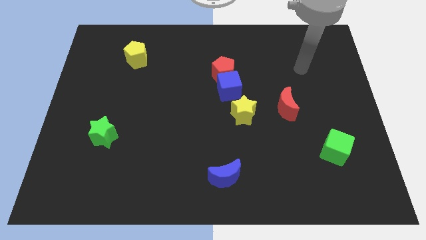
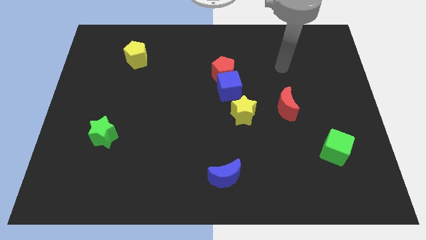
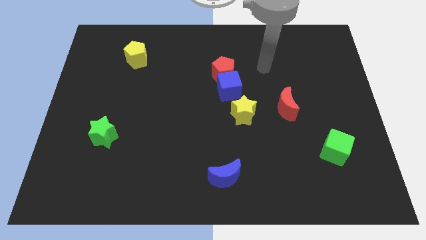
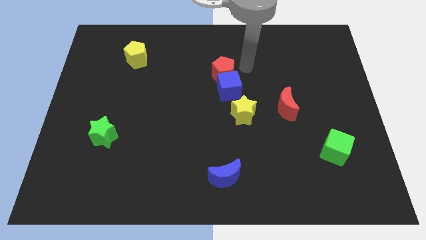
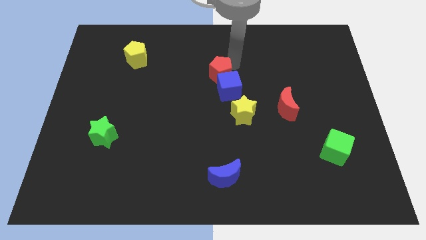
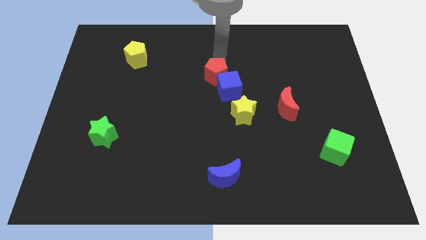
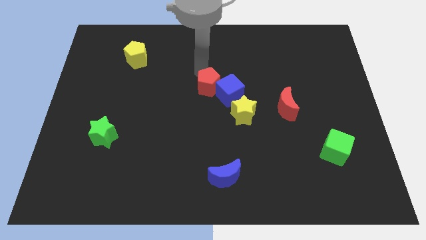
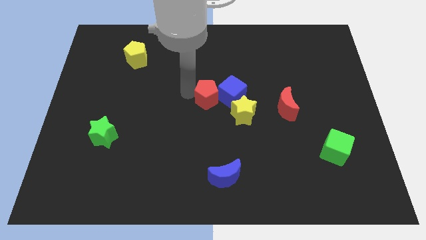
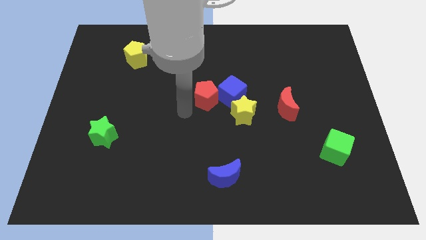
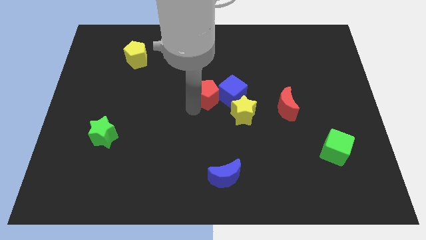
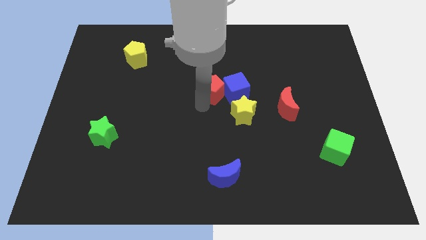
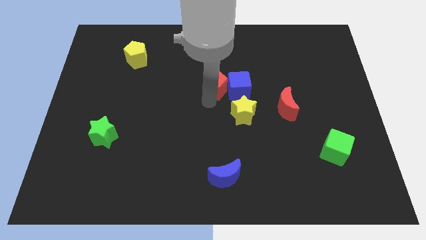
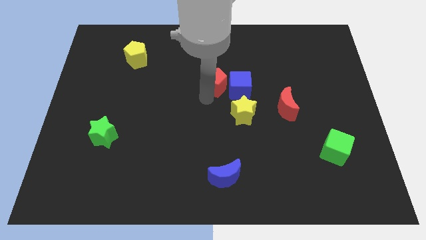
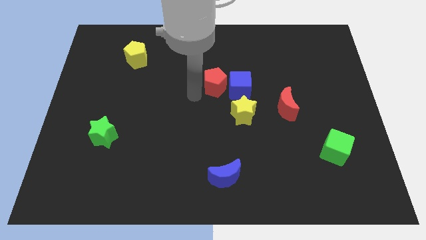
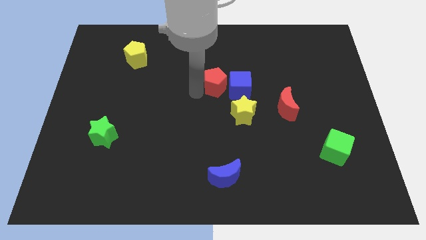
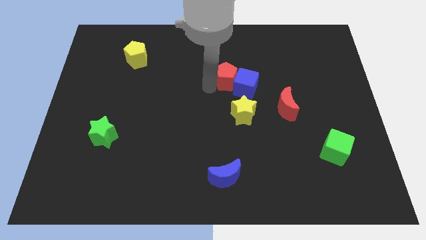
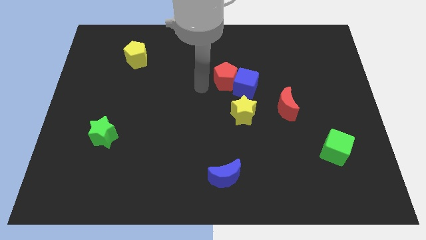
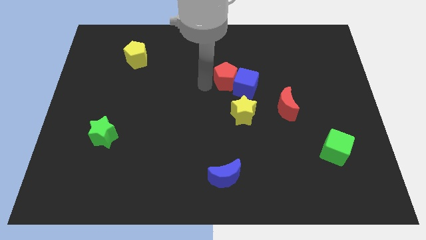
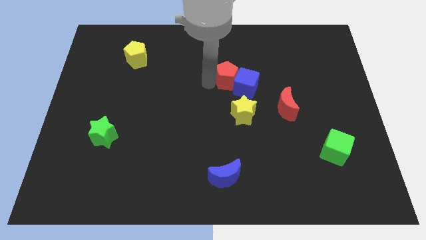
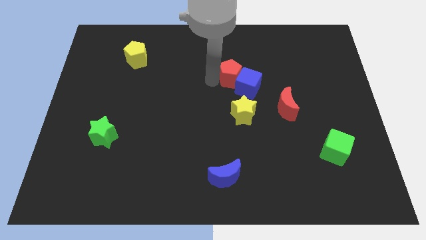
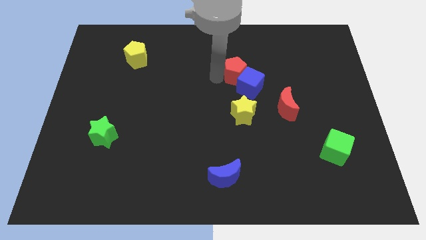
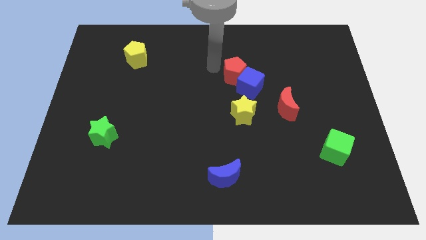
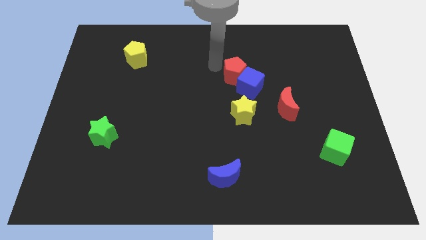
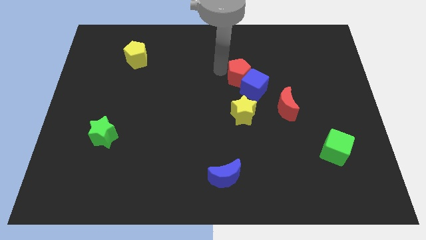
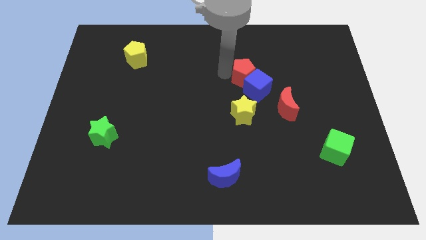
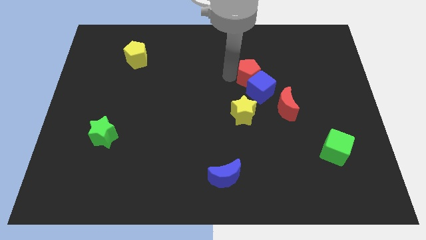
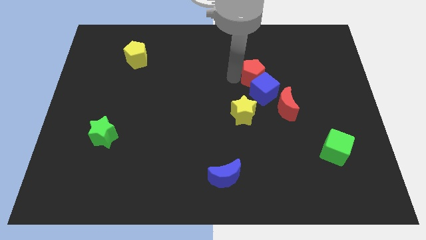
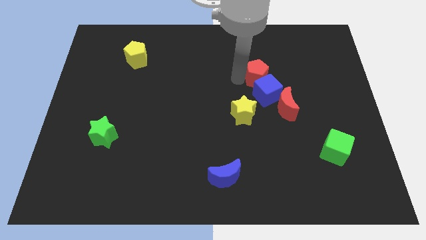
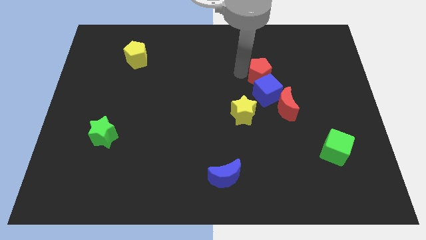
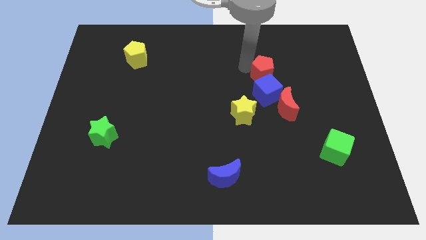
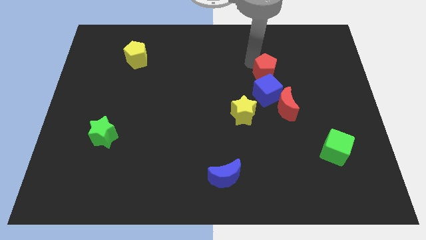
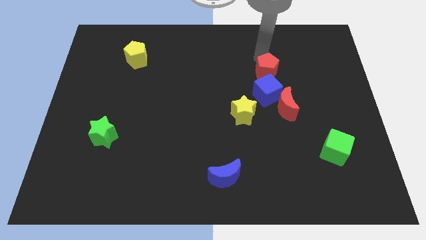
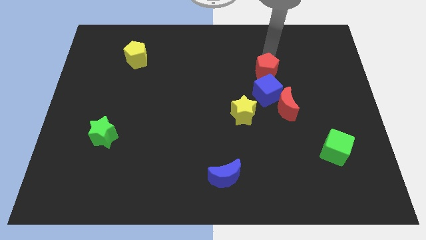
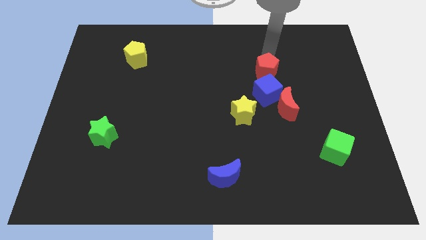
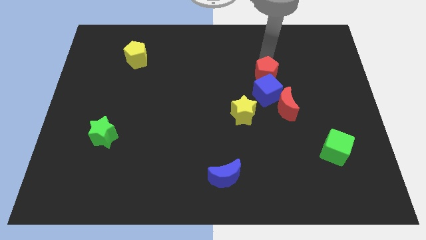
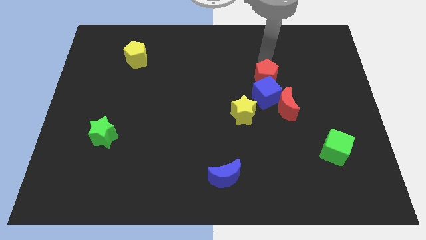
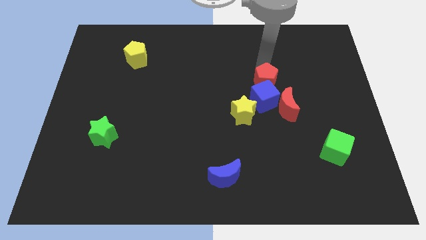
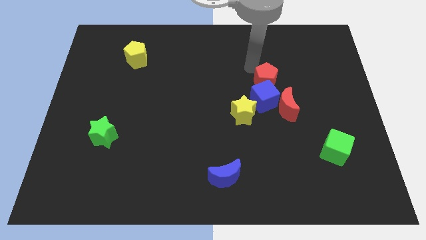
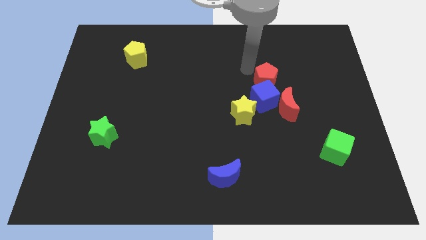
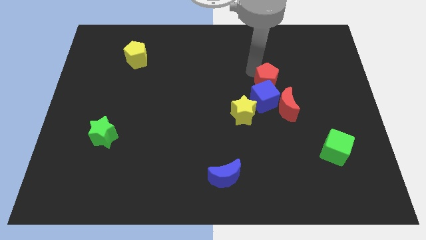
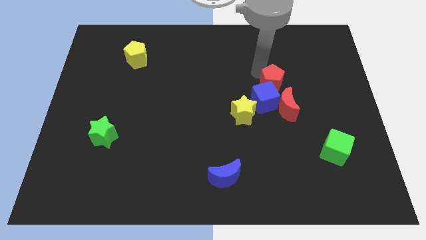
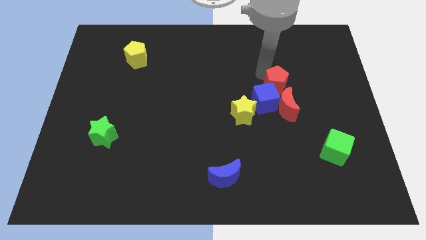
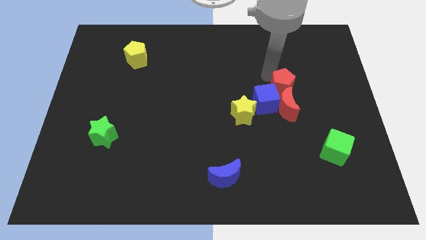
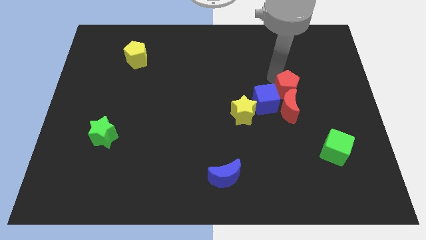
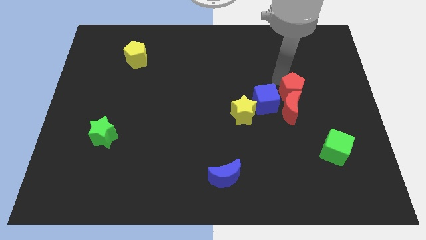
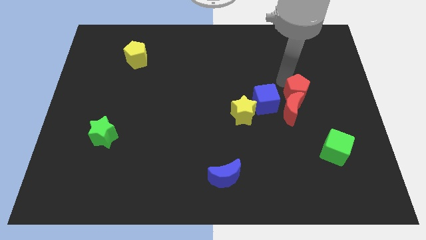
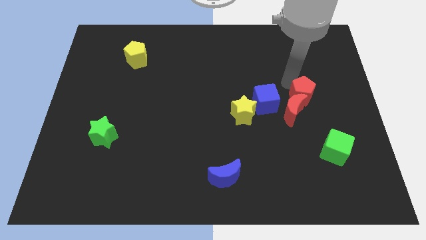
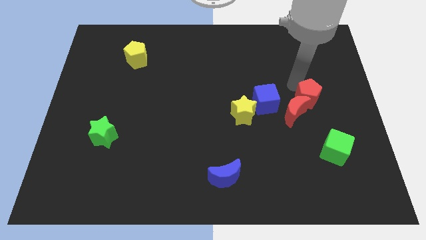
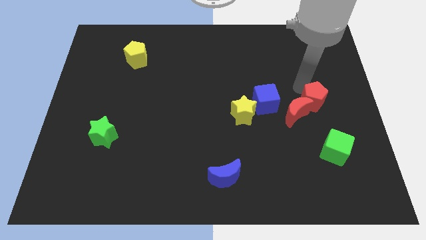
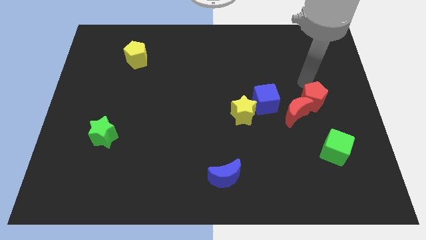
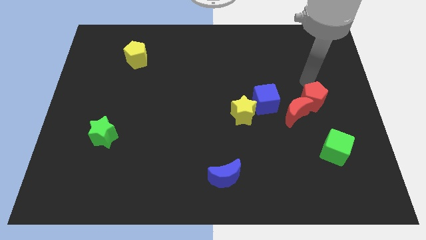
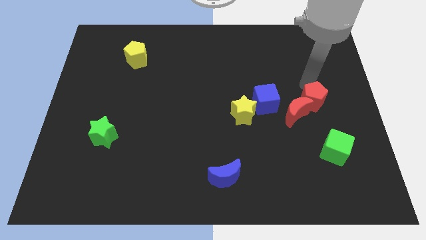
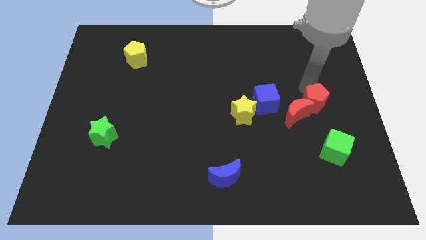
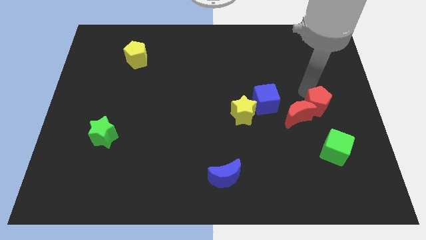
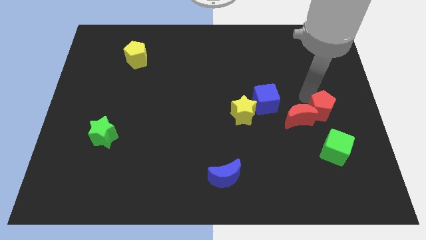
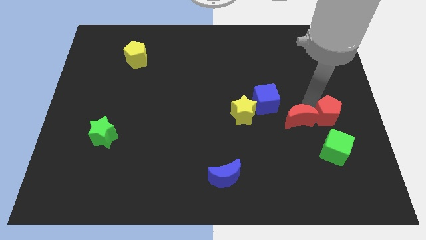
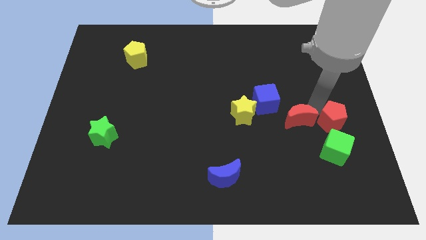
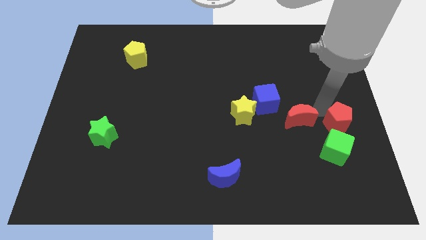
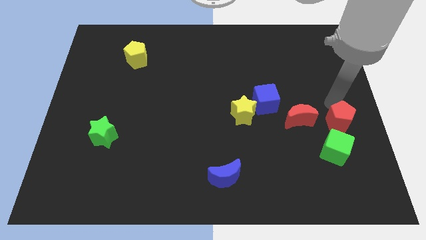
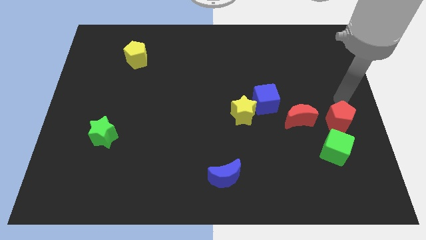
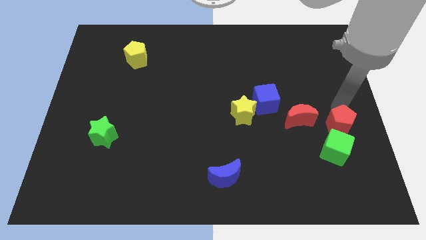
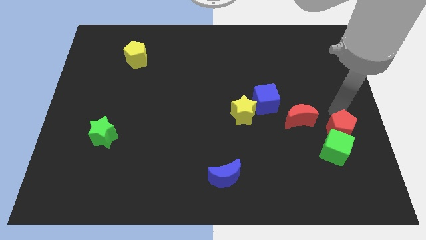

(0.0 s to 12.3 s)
push the red pentagon to the green cube

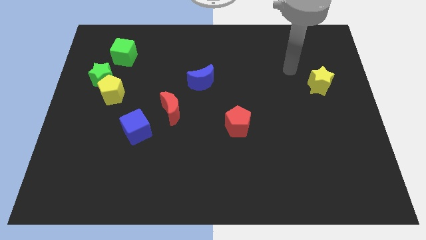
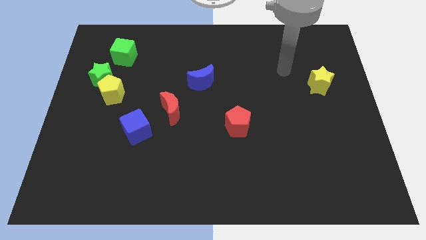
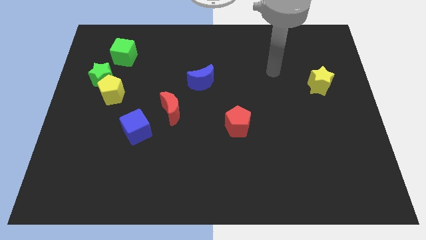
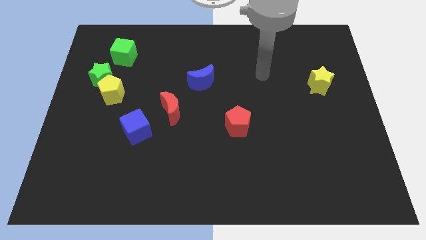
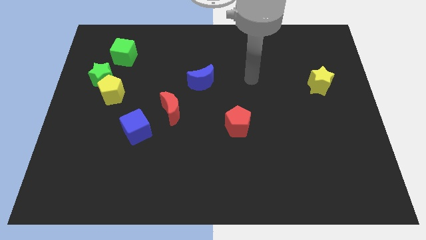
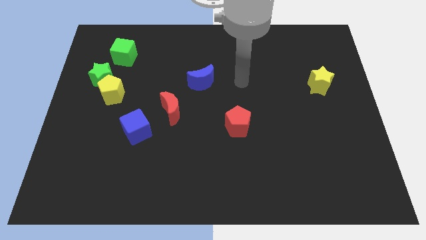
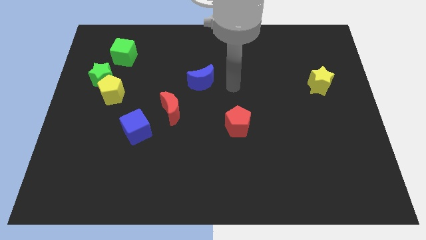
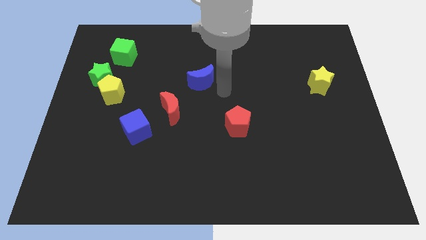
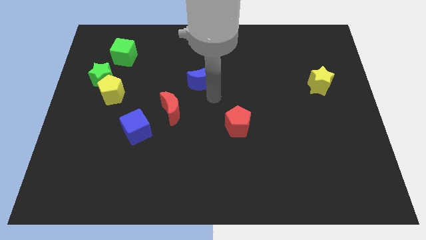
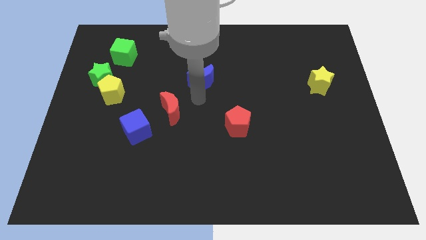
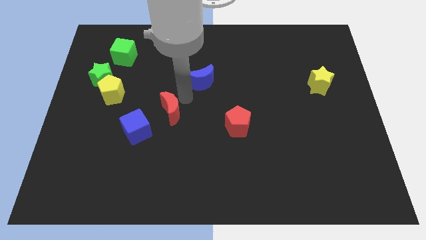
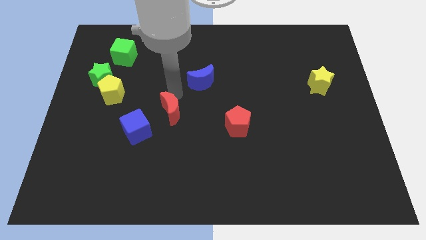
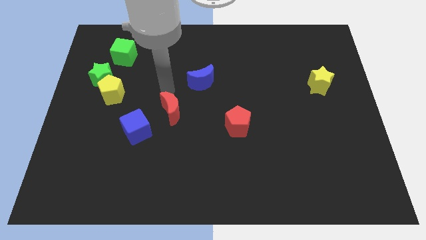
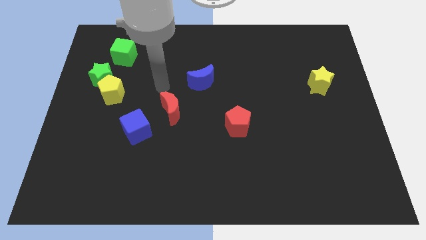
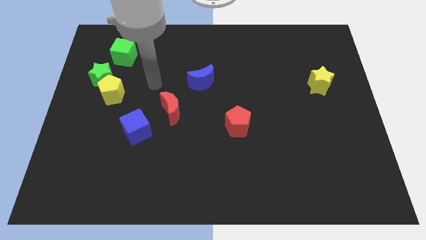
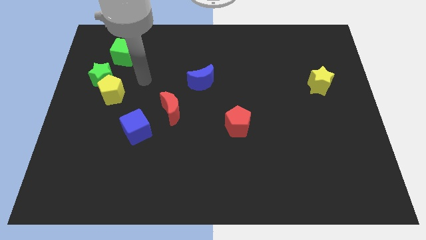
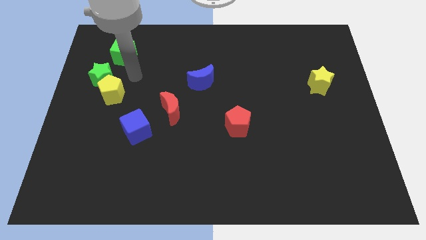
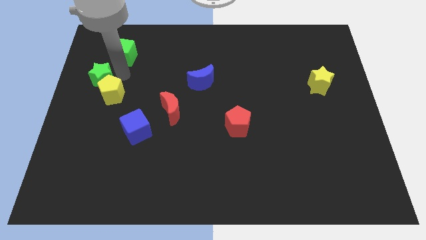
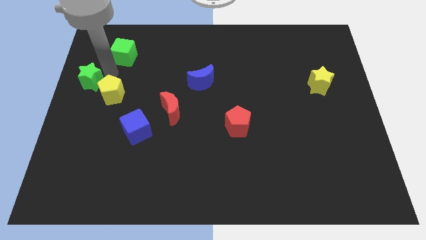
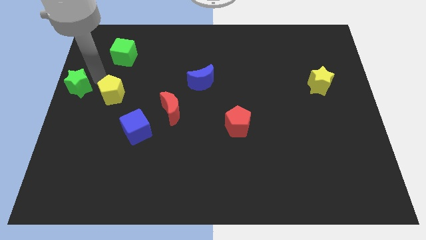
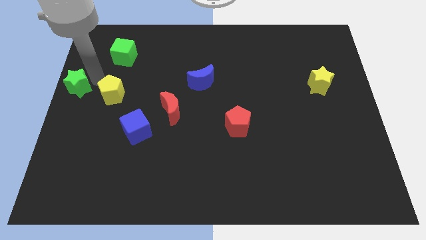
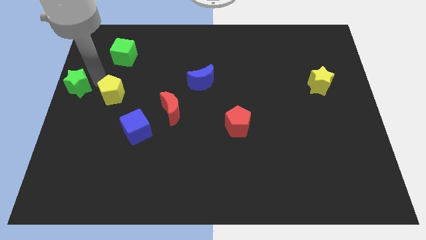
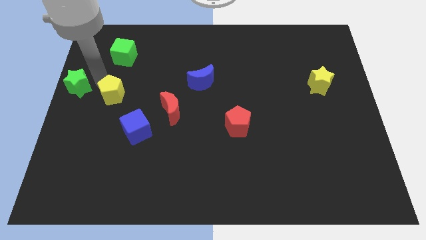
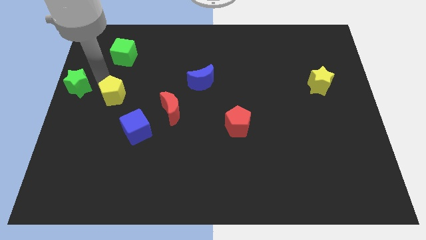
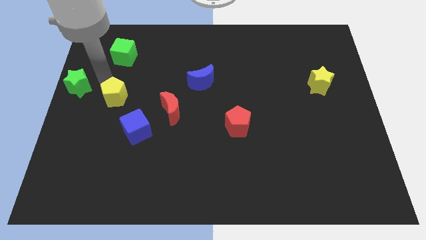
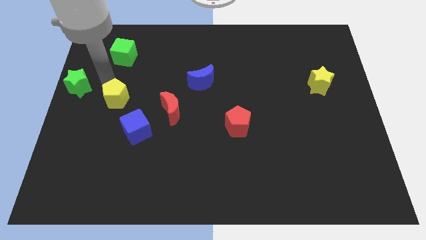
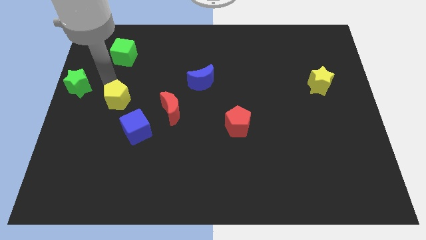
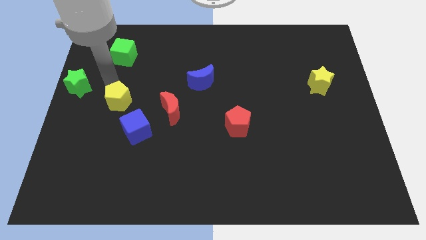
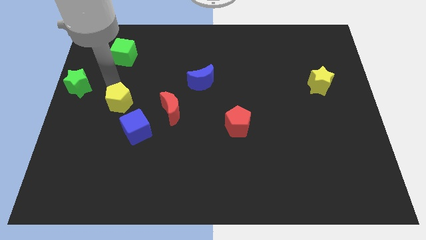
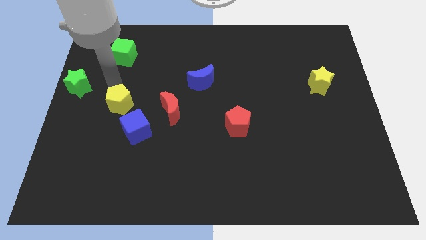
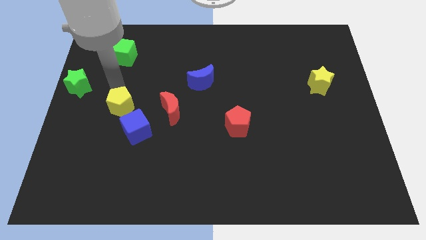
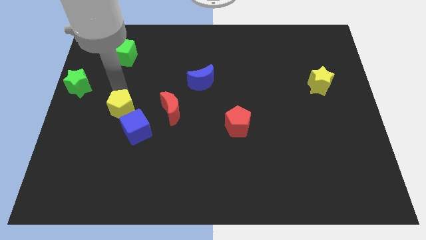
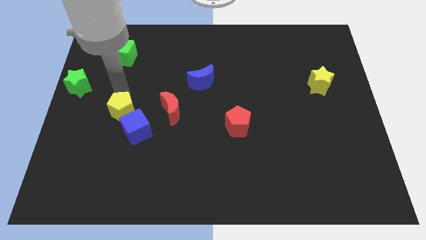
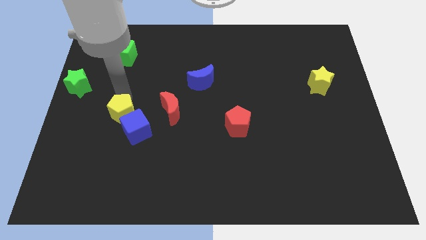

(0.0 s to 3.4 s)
move the yellow pentagon to the blue cube
